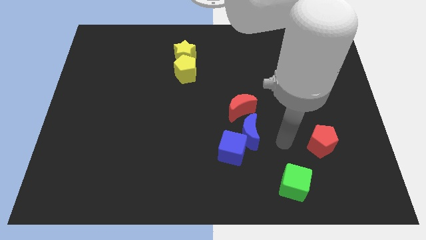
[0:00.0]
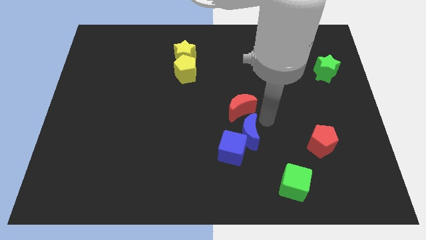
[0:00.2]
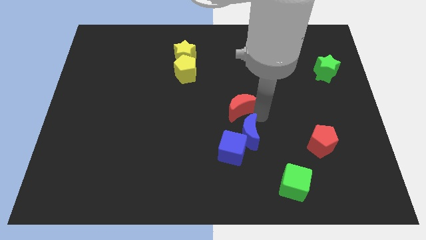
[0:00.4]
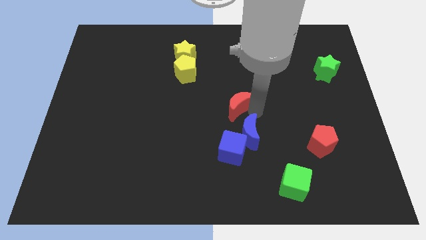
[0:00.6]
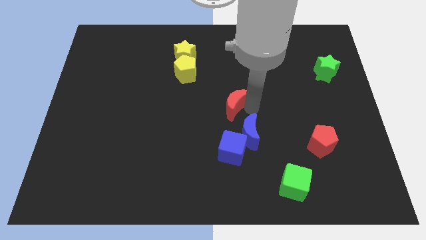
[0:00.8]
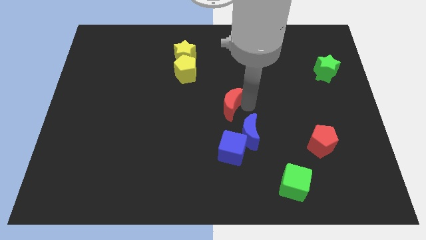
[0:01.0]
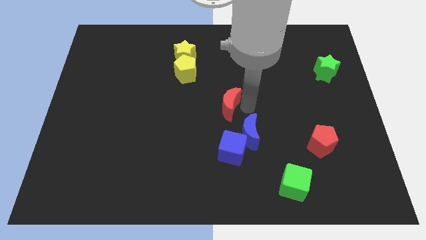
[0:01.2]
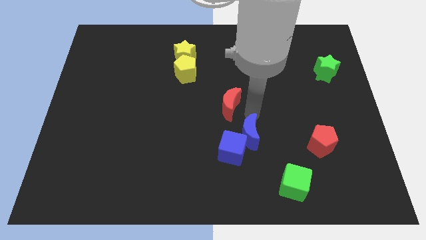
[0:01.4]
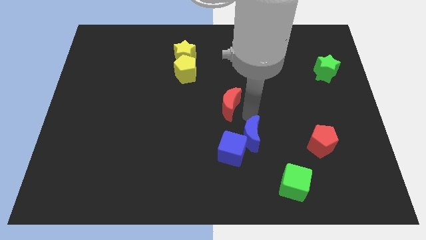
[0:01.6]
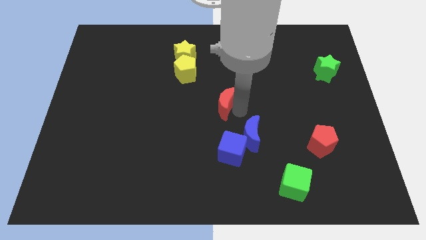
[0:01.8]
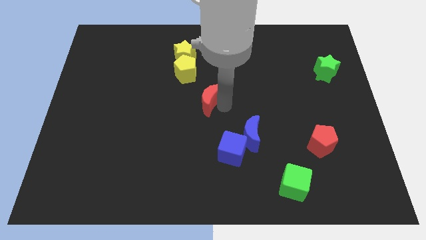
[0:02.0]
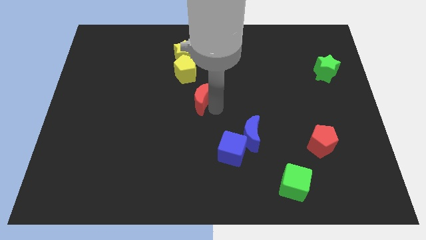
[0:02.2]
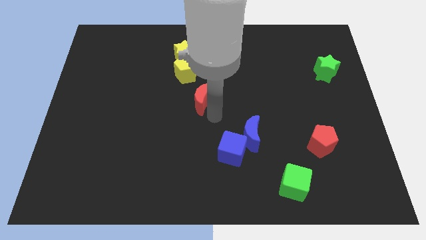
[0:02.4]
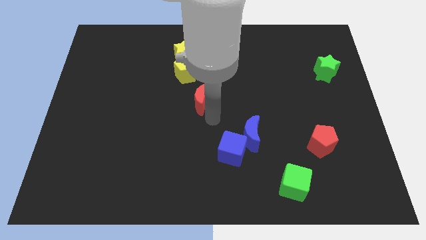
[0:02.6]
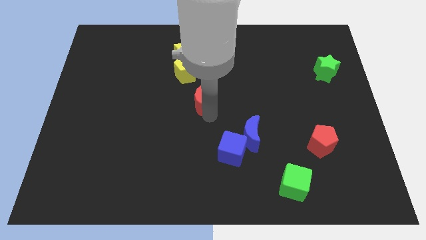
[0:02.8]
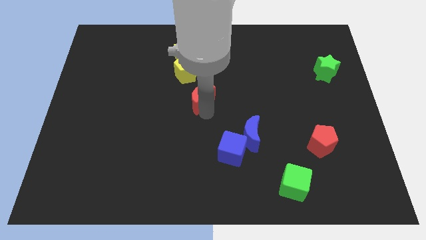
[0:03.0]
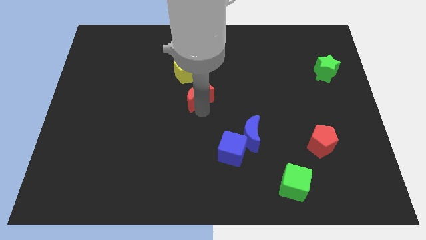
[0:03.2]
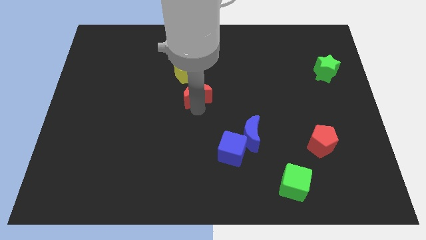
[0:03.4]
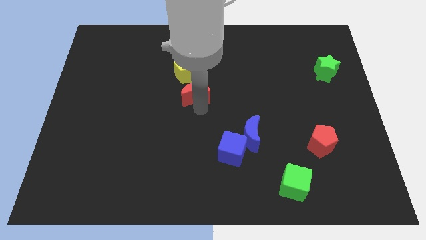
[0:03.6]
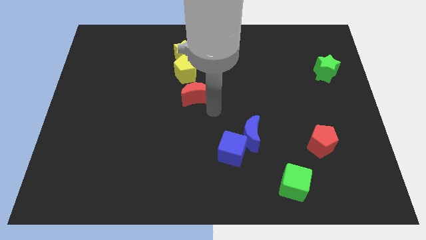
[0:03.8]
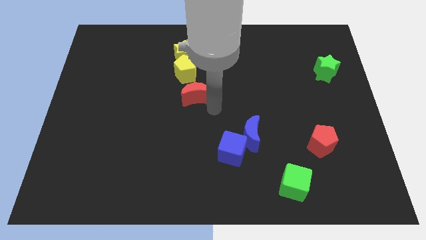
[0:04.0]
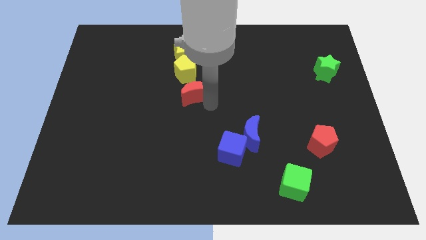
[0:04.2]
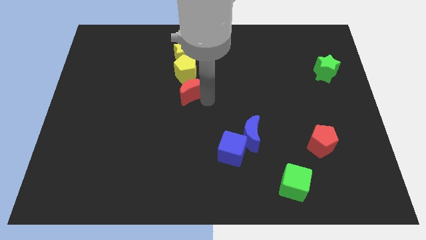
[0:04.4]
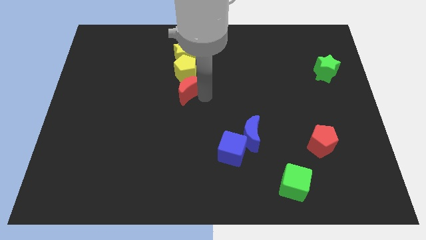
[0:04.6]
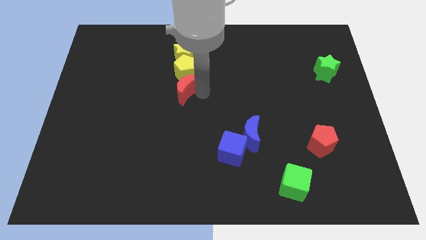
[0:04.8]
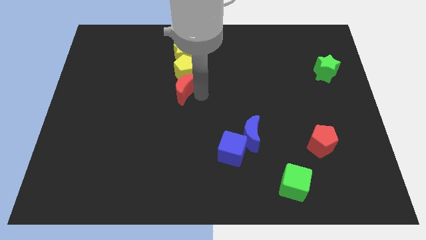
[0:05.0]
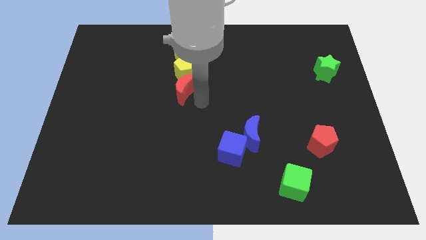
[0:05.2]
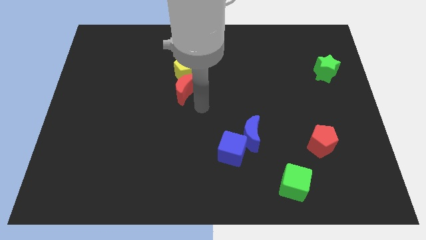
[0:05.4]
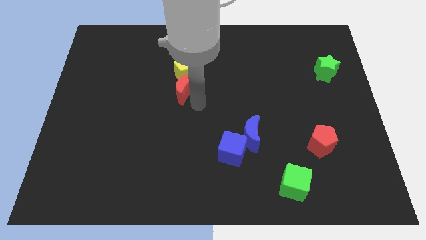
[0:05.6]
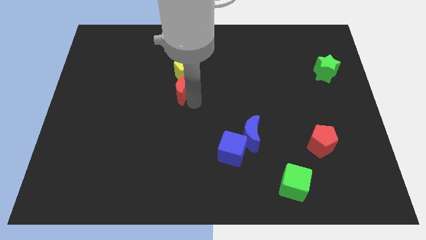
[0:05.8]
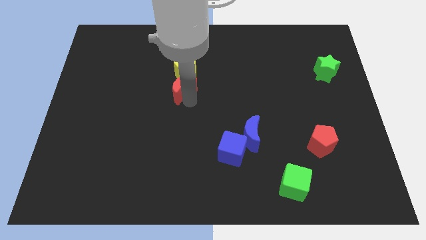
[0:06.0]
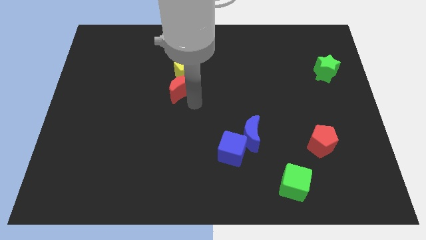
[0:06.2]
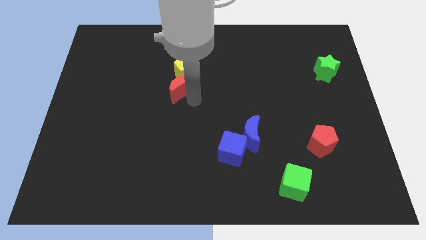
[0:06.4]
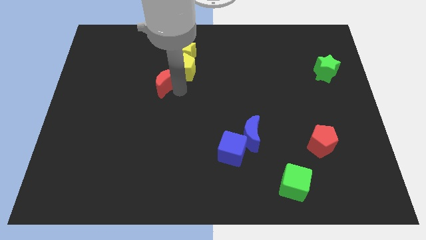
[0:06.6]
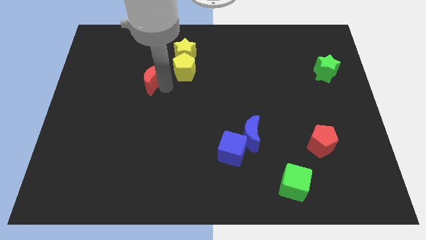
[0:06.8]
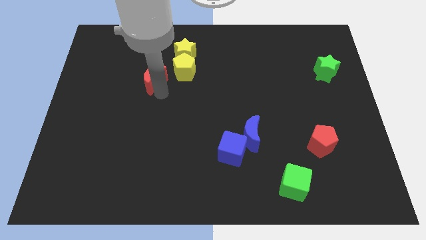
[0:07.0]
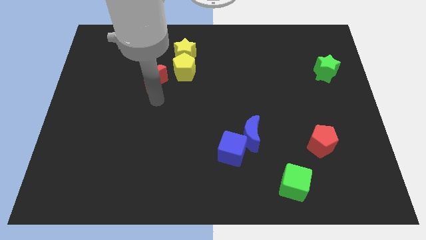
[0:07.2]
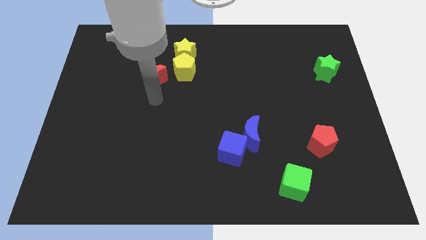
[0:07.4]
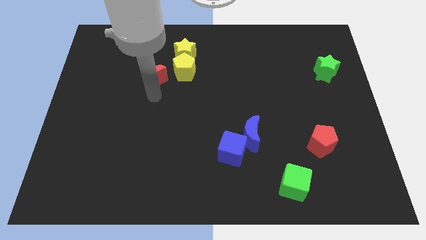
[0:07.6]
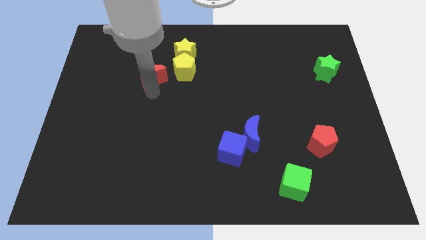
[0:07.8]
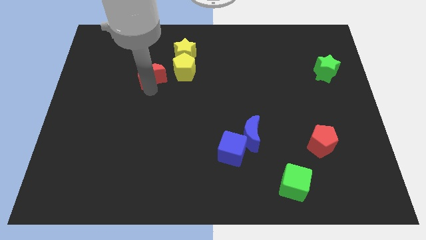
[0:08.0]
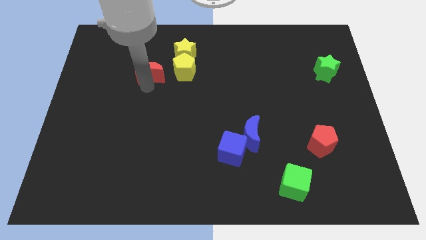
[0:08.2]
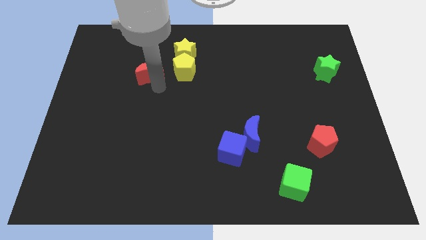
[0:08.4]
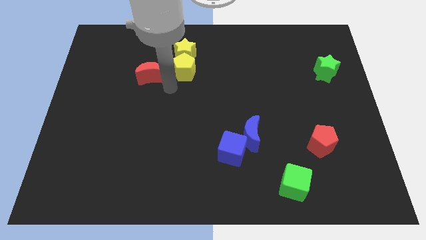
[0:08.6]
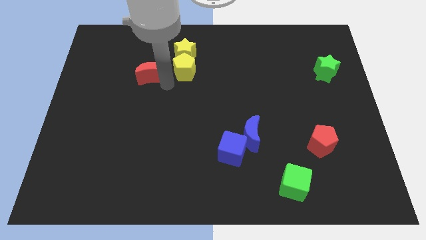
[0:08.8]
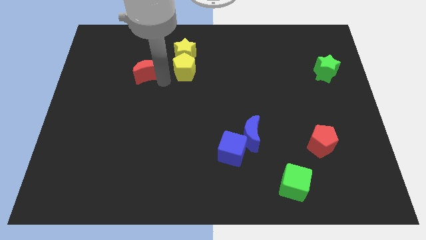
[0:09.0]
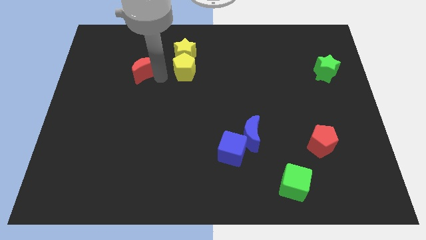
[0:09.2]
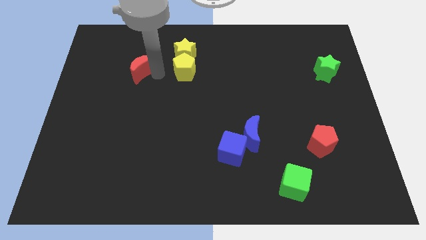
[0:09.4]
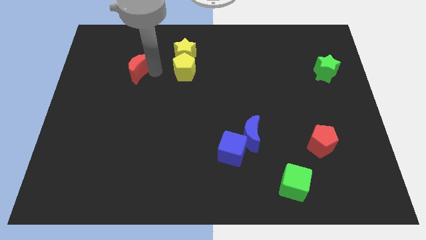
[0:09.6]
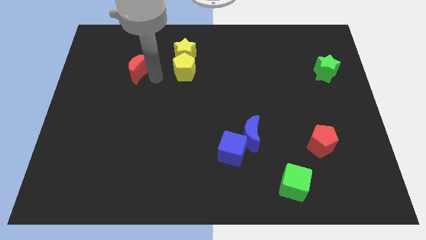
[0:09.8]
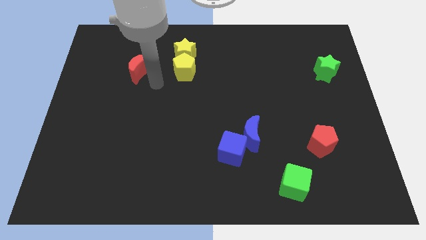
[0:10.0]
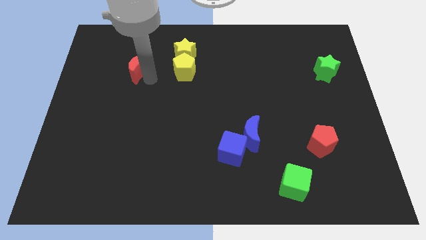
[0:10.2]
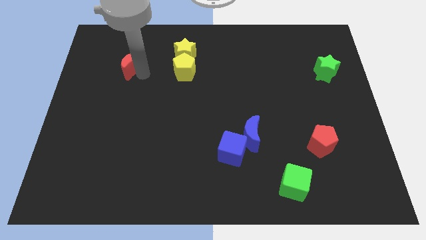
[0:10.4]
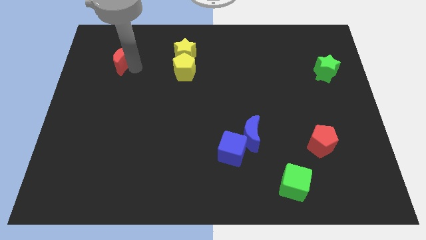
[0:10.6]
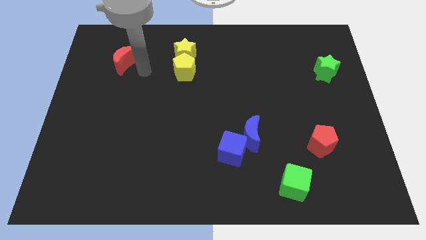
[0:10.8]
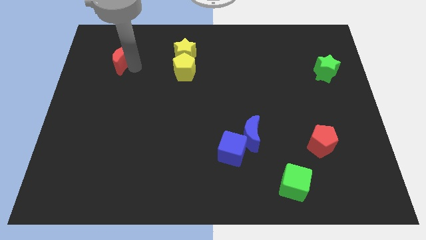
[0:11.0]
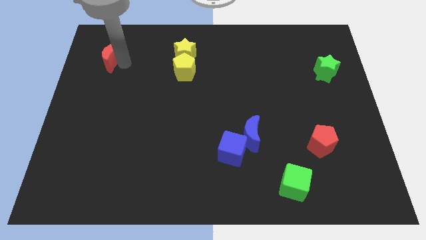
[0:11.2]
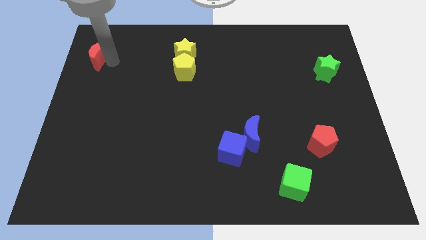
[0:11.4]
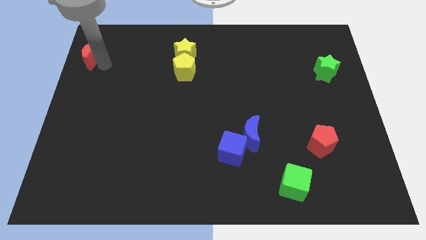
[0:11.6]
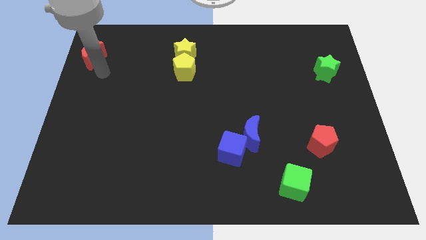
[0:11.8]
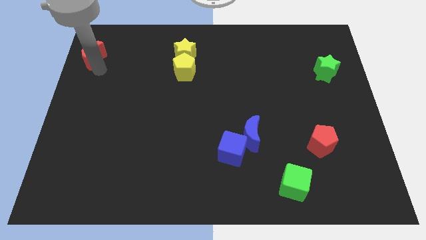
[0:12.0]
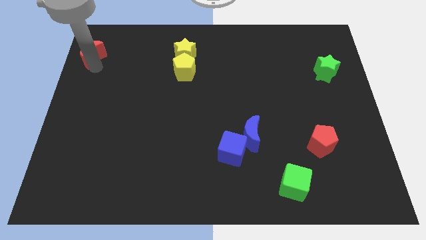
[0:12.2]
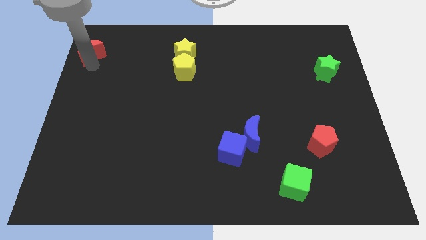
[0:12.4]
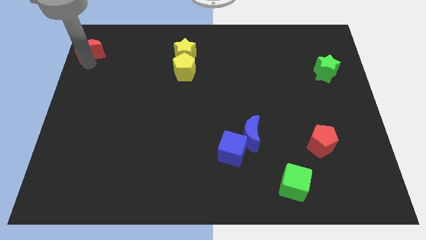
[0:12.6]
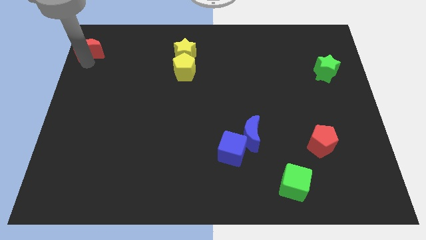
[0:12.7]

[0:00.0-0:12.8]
put the red moon to the top left of the board
